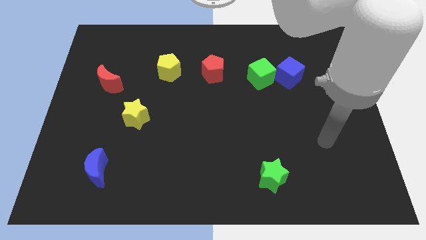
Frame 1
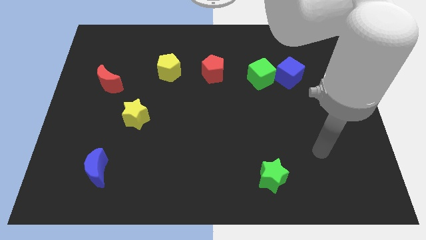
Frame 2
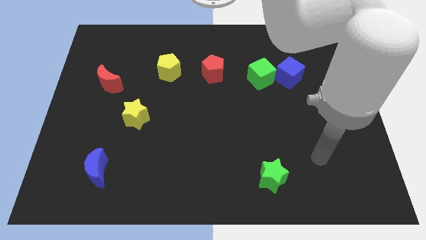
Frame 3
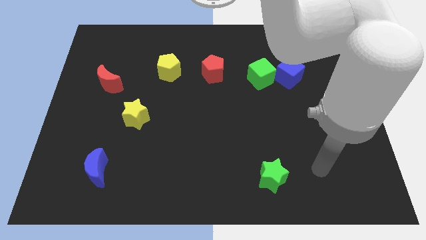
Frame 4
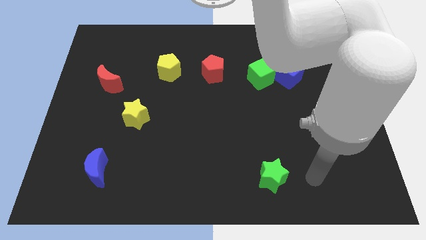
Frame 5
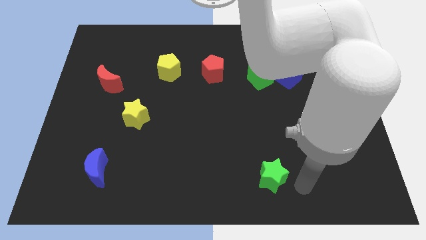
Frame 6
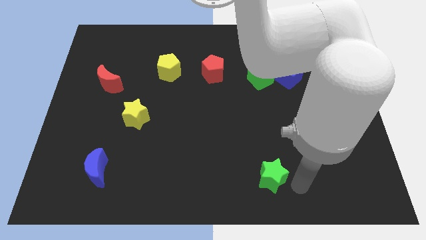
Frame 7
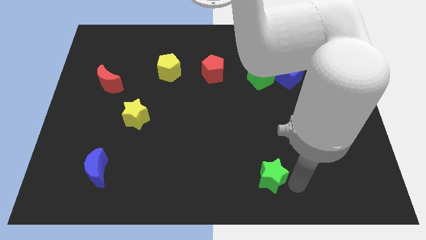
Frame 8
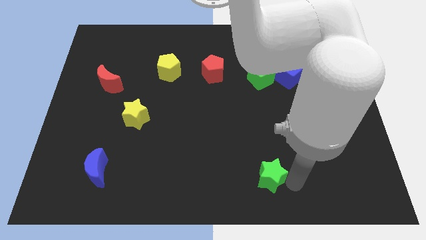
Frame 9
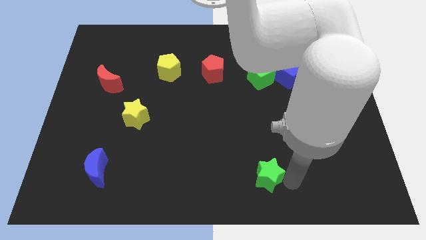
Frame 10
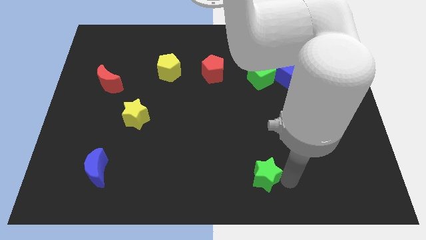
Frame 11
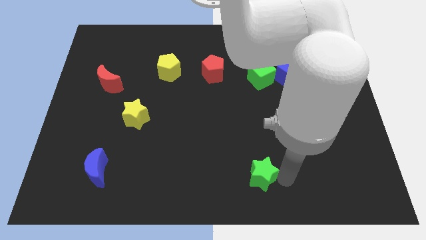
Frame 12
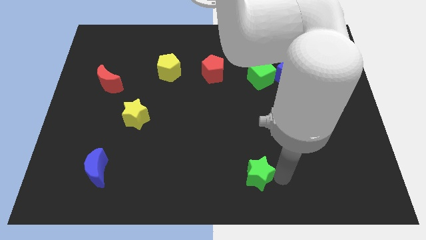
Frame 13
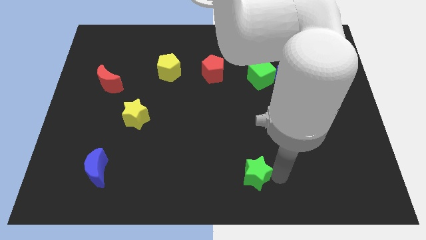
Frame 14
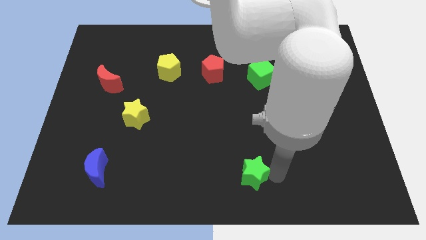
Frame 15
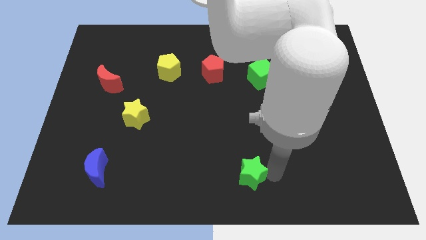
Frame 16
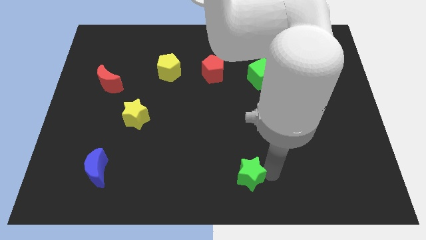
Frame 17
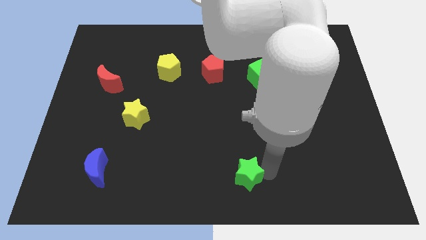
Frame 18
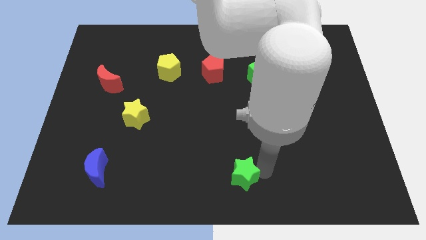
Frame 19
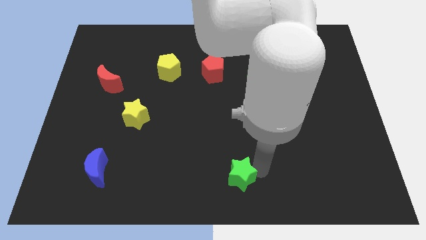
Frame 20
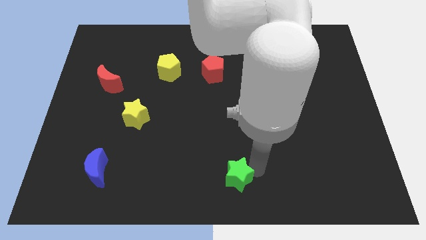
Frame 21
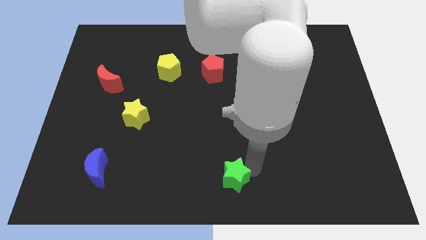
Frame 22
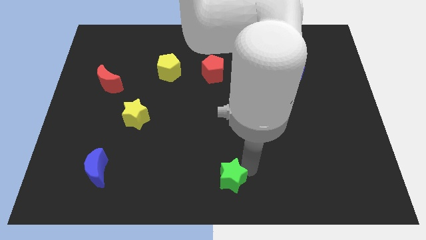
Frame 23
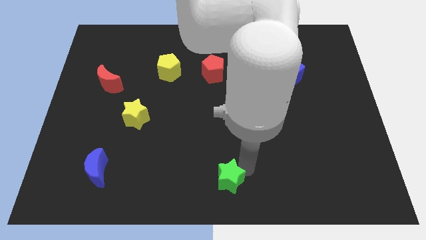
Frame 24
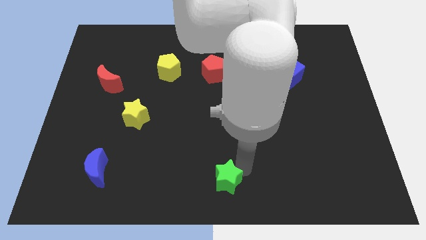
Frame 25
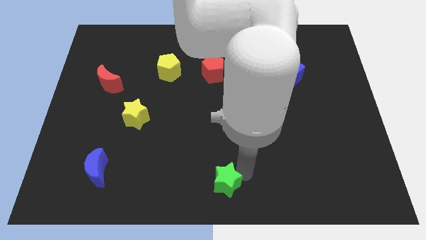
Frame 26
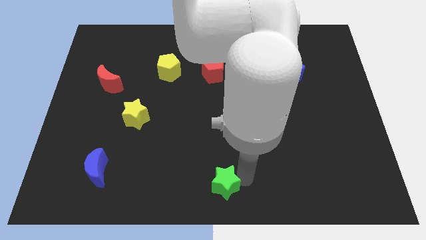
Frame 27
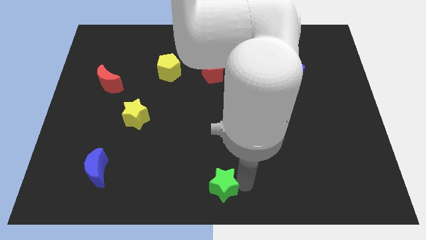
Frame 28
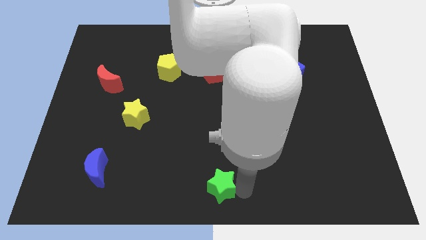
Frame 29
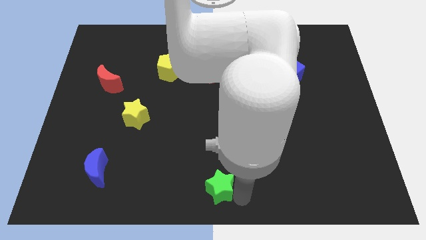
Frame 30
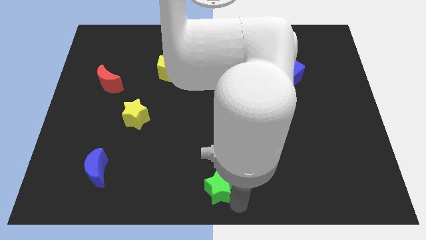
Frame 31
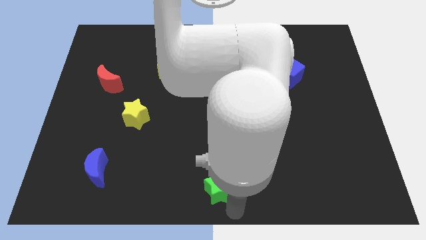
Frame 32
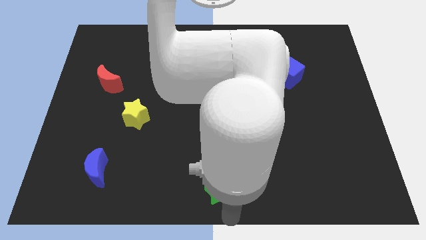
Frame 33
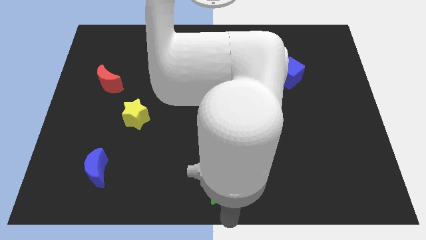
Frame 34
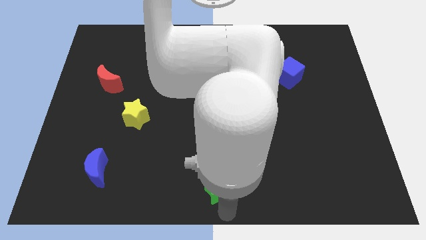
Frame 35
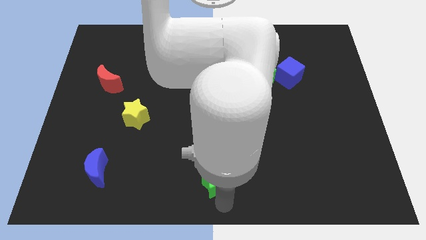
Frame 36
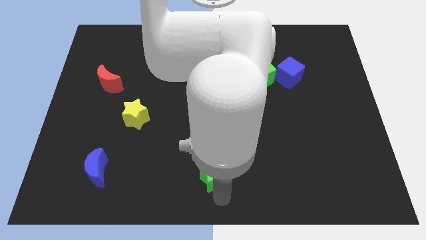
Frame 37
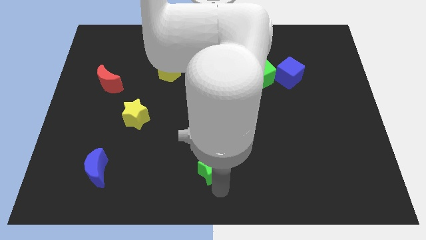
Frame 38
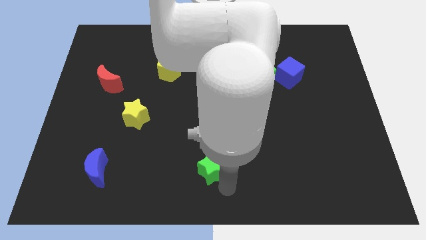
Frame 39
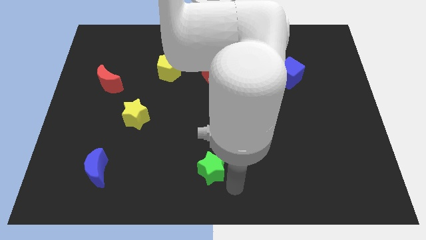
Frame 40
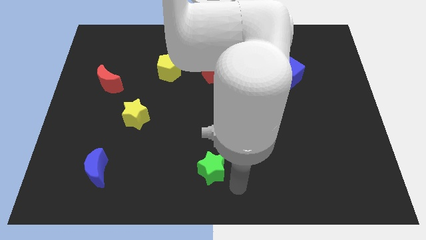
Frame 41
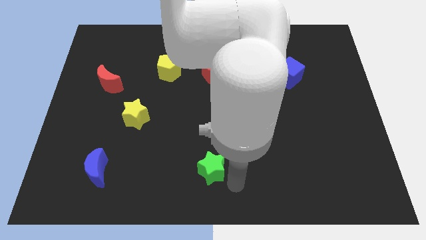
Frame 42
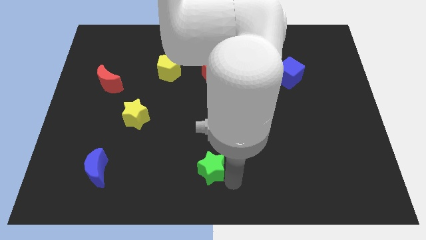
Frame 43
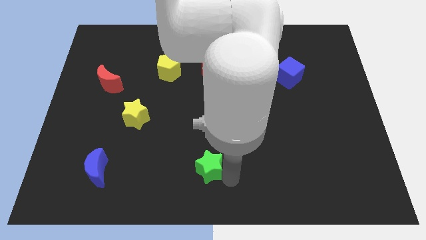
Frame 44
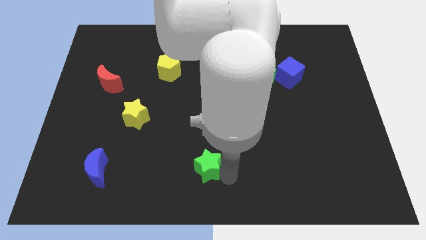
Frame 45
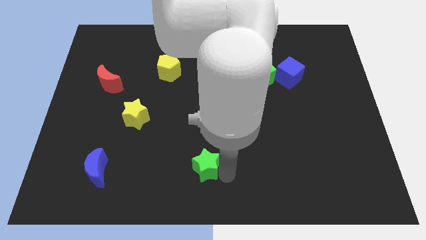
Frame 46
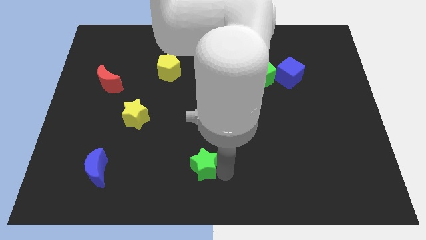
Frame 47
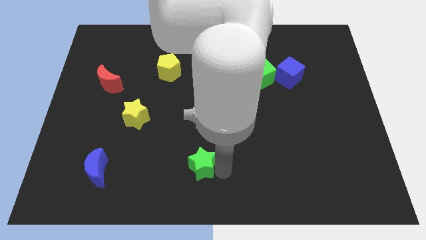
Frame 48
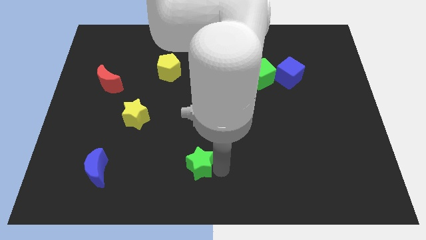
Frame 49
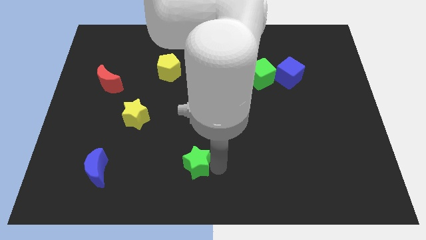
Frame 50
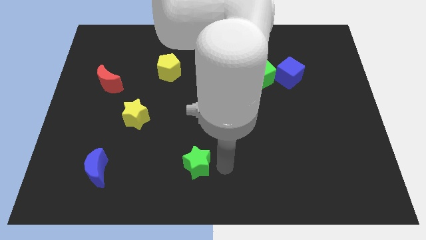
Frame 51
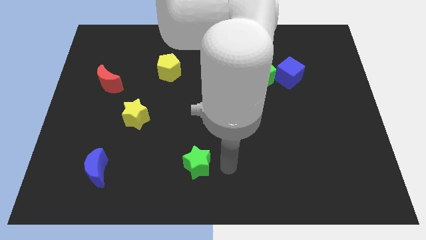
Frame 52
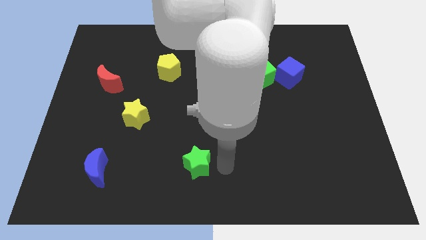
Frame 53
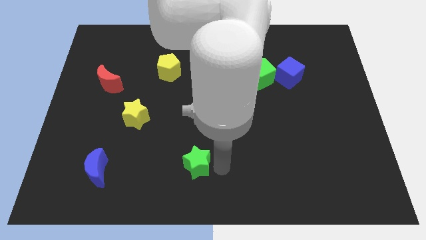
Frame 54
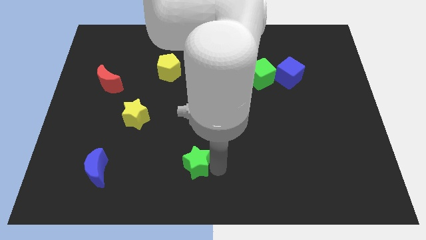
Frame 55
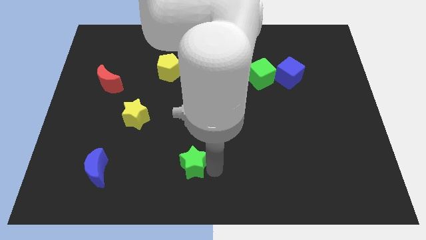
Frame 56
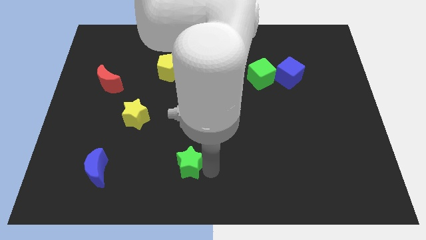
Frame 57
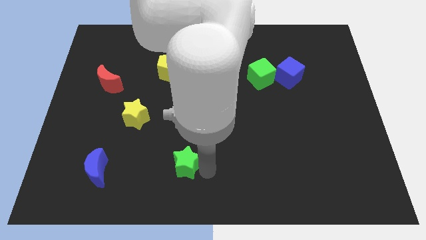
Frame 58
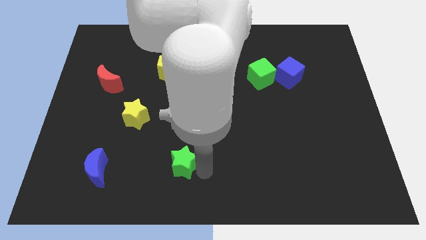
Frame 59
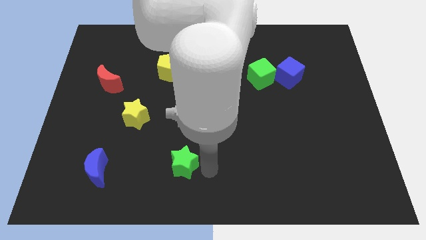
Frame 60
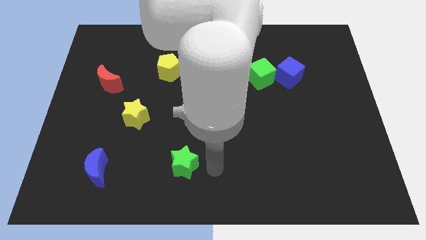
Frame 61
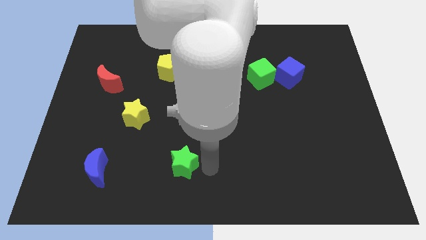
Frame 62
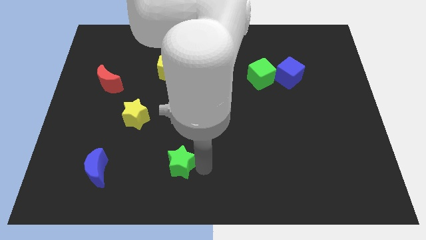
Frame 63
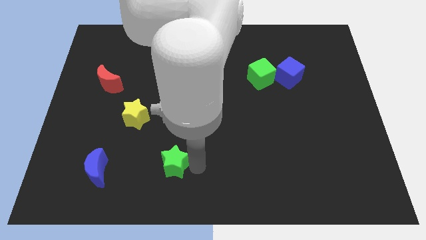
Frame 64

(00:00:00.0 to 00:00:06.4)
push the green star just right of the blue moon

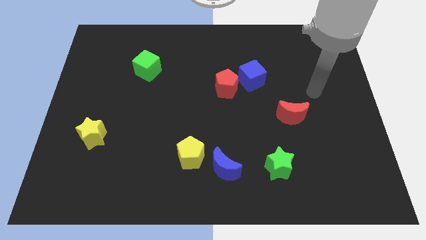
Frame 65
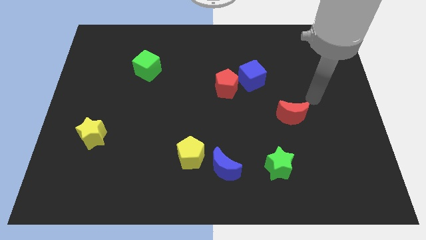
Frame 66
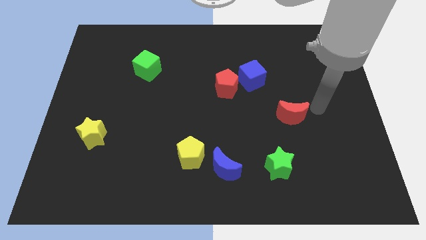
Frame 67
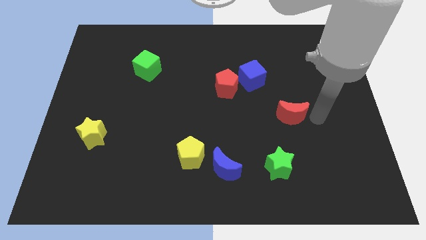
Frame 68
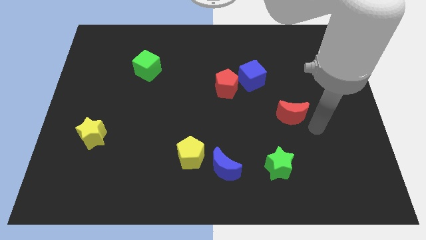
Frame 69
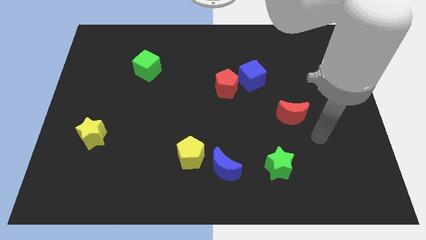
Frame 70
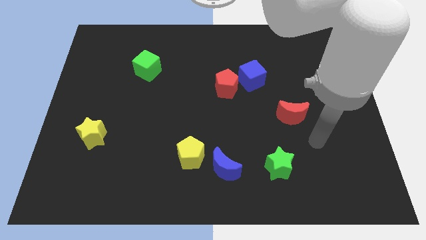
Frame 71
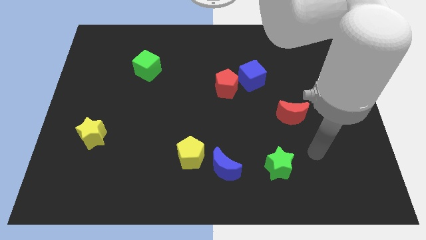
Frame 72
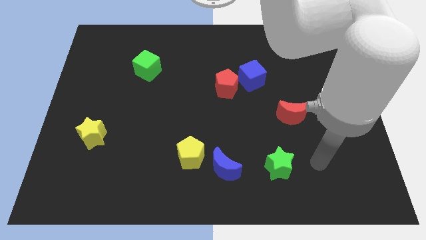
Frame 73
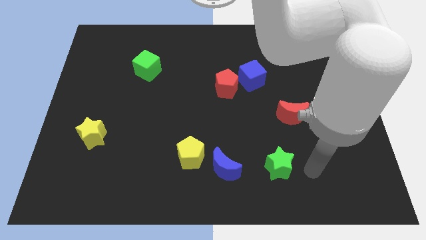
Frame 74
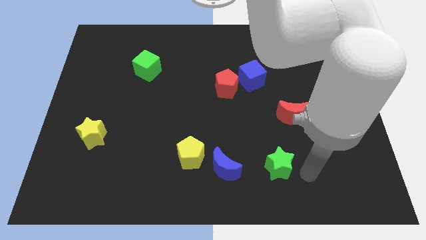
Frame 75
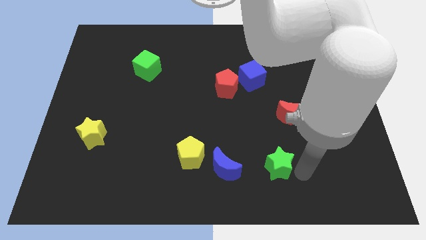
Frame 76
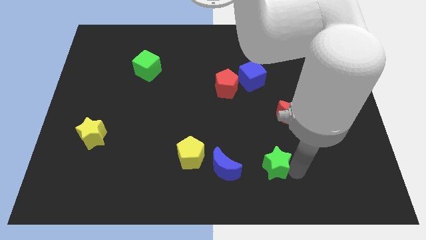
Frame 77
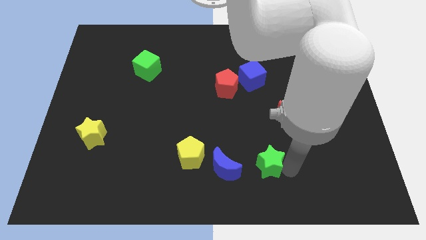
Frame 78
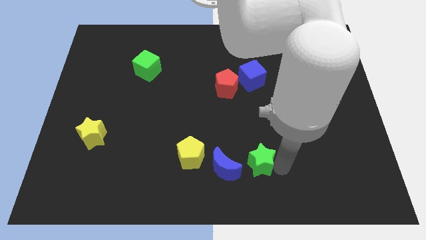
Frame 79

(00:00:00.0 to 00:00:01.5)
put the green star to the right of the yellow pentagon
